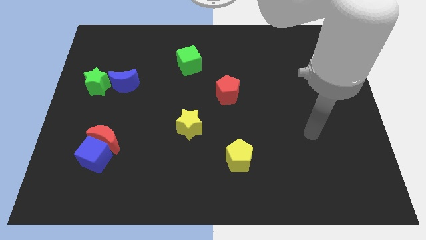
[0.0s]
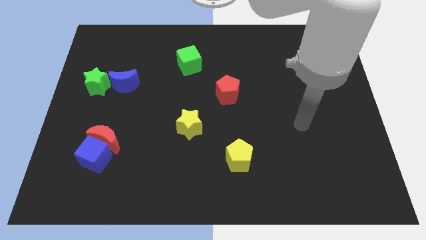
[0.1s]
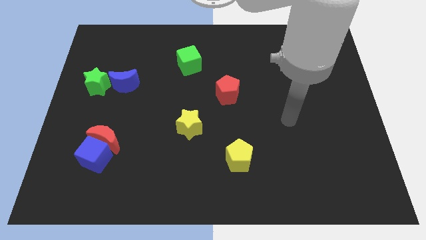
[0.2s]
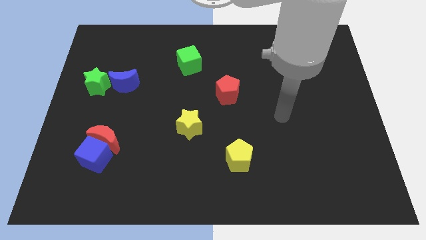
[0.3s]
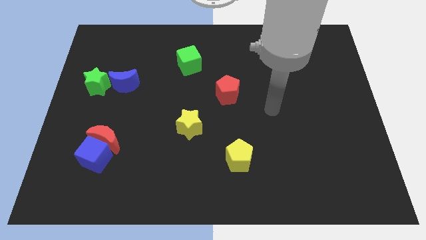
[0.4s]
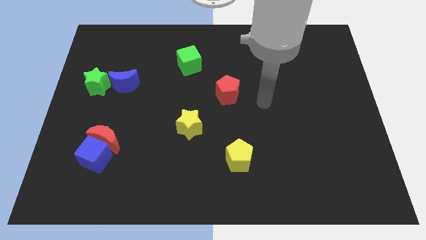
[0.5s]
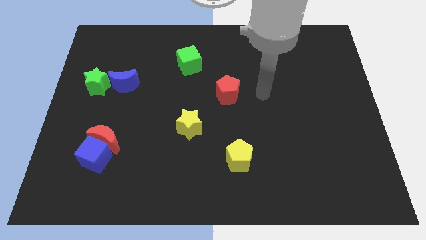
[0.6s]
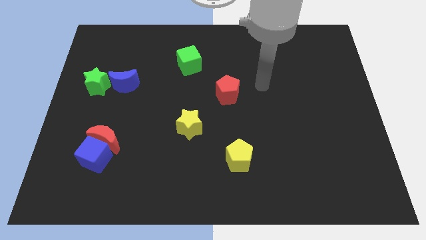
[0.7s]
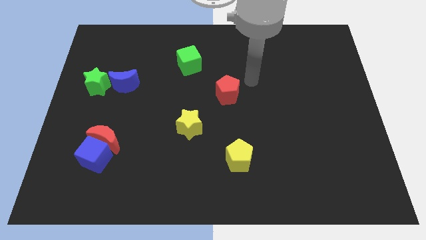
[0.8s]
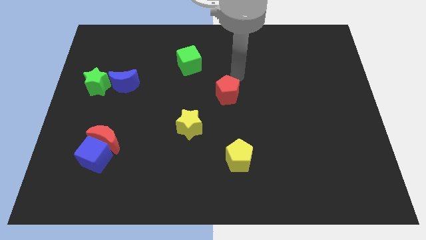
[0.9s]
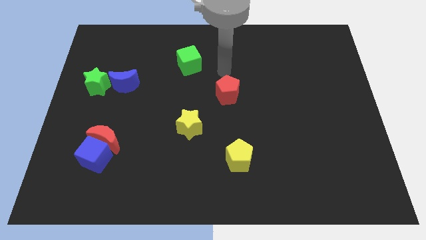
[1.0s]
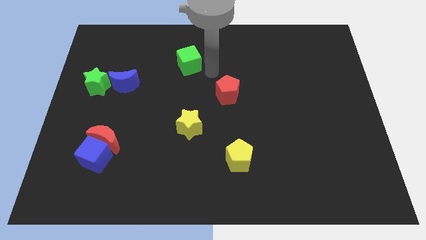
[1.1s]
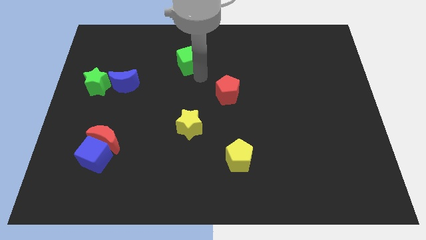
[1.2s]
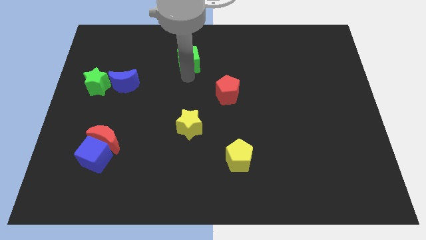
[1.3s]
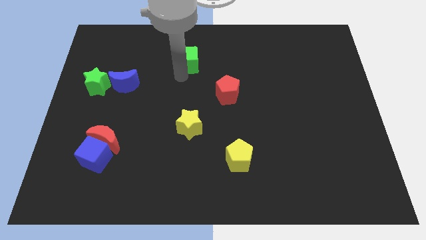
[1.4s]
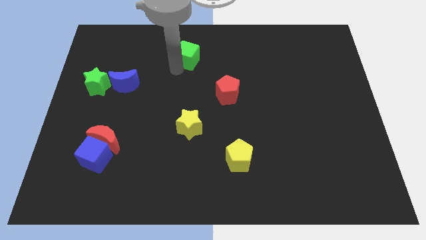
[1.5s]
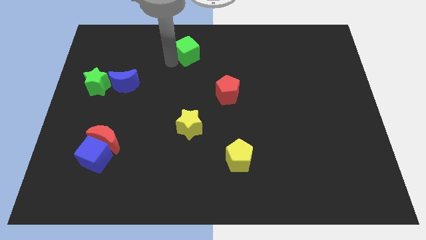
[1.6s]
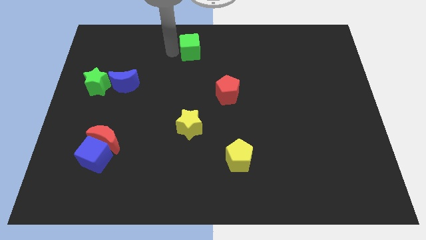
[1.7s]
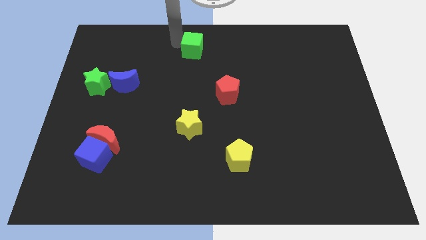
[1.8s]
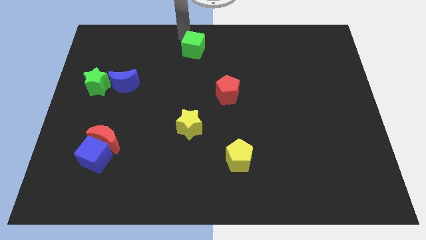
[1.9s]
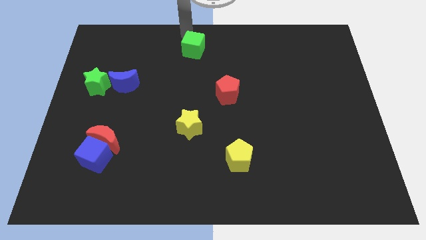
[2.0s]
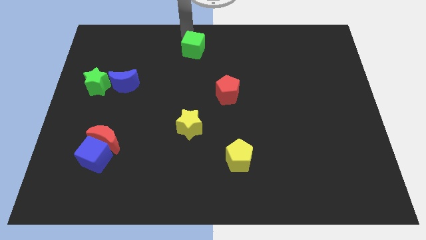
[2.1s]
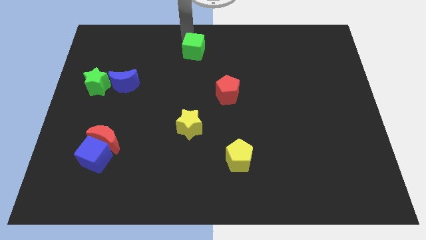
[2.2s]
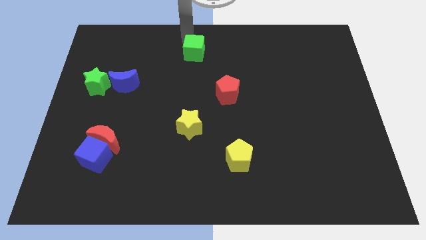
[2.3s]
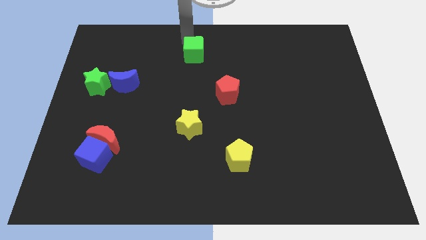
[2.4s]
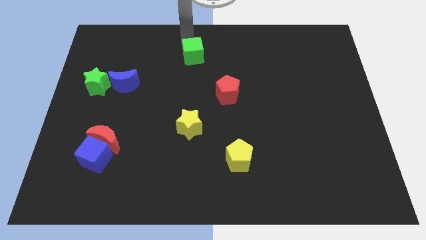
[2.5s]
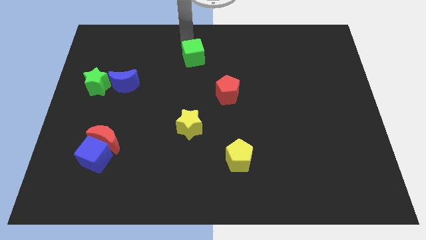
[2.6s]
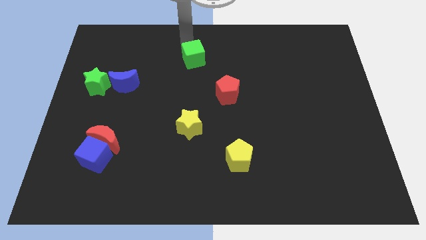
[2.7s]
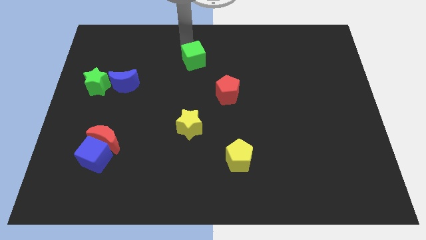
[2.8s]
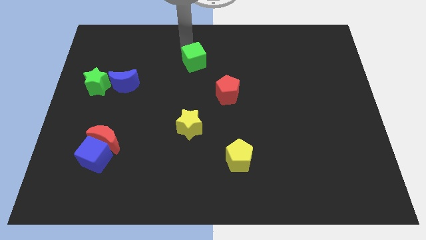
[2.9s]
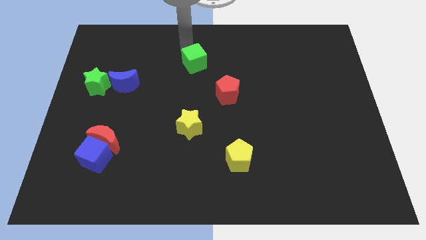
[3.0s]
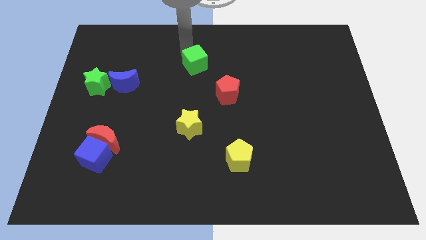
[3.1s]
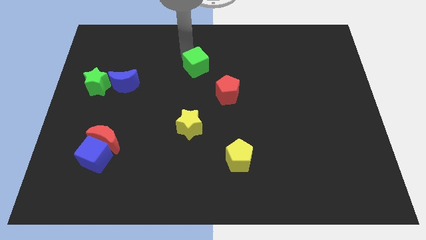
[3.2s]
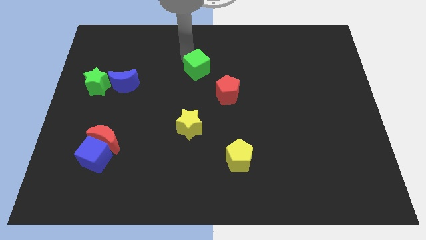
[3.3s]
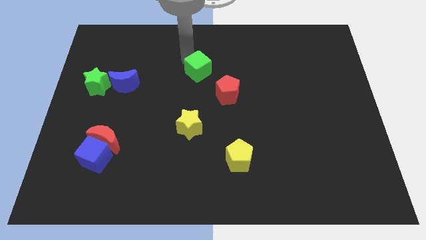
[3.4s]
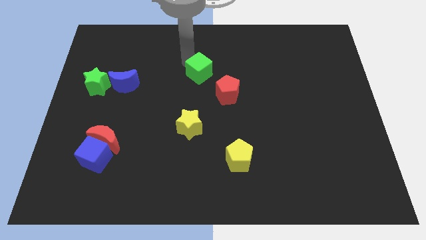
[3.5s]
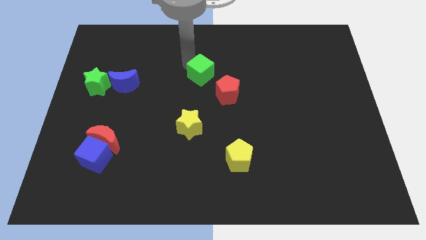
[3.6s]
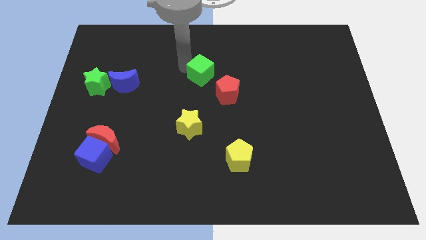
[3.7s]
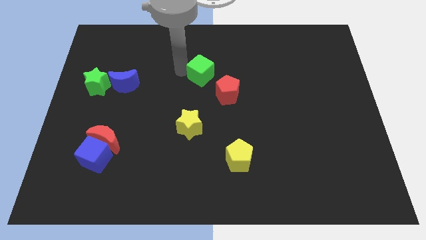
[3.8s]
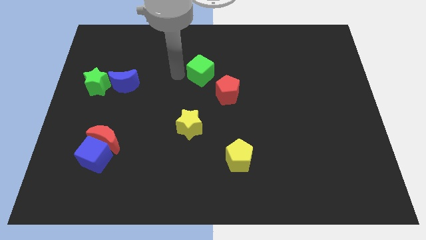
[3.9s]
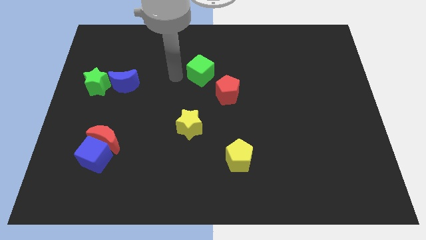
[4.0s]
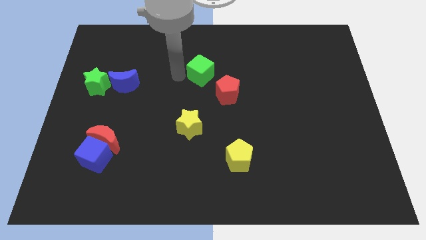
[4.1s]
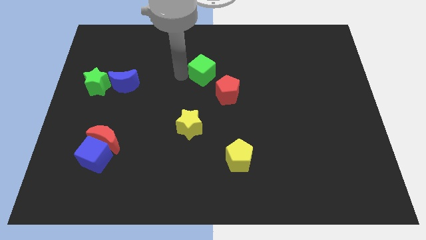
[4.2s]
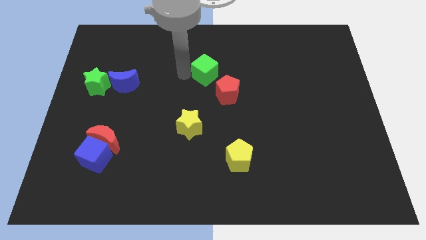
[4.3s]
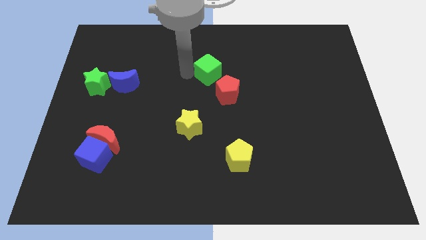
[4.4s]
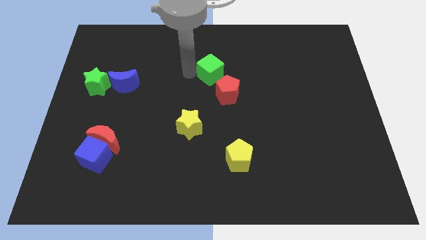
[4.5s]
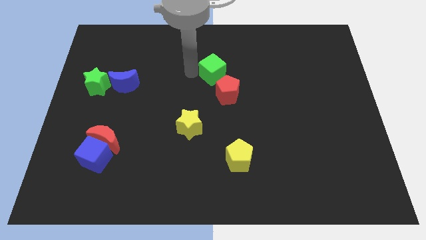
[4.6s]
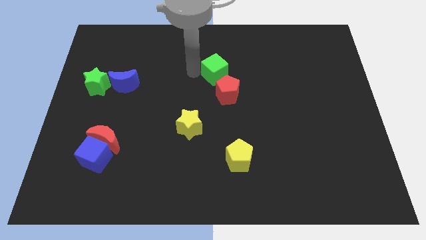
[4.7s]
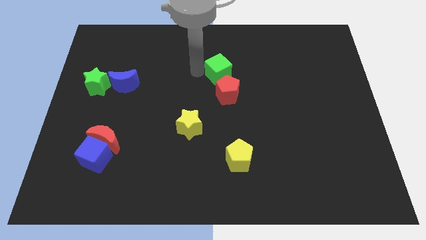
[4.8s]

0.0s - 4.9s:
push the green cube right a little bit

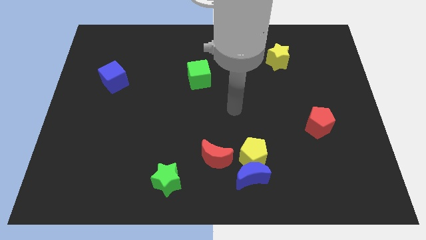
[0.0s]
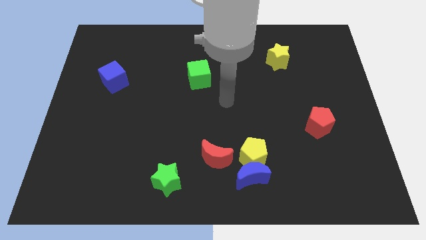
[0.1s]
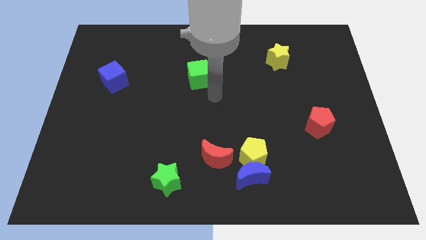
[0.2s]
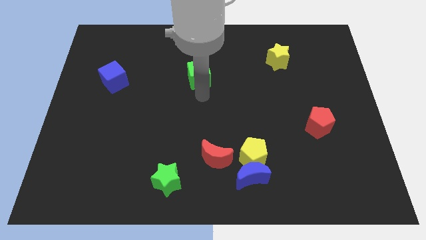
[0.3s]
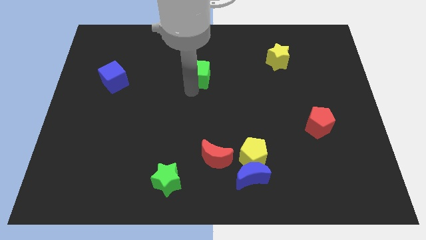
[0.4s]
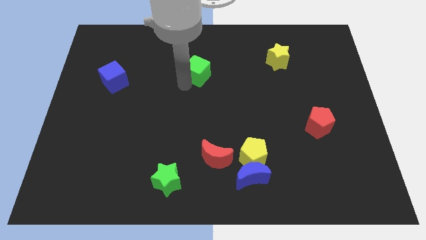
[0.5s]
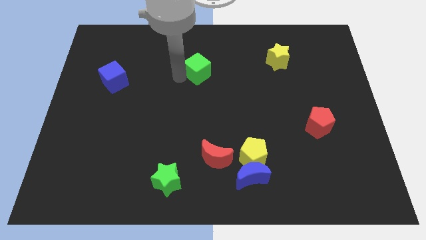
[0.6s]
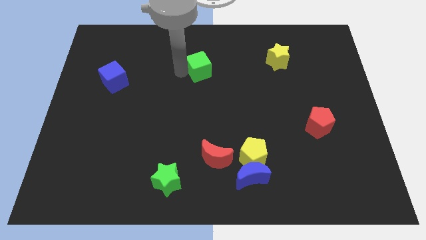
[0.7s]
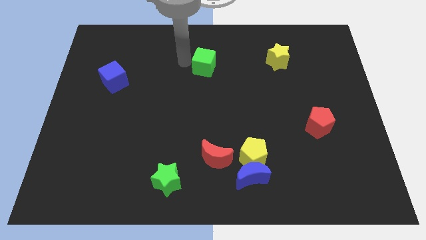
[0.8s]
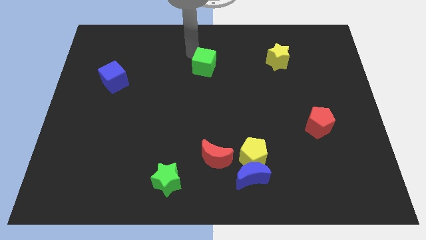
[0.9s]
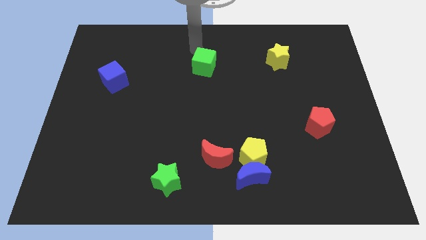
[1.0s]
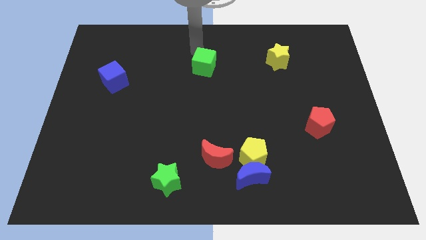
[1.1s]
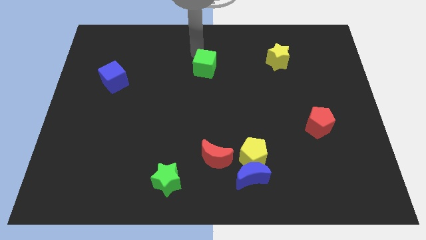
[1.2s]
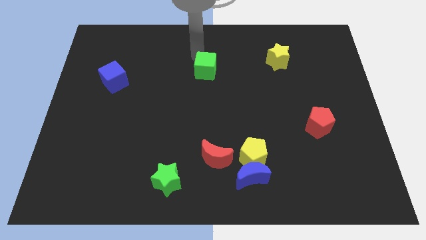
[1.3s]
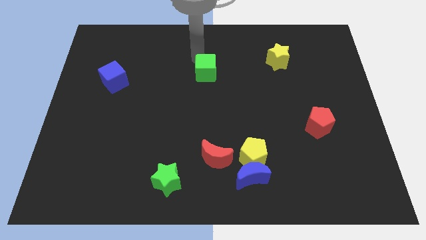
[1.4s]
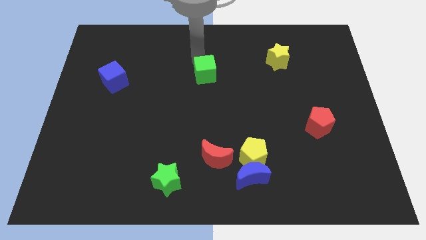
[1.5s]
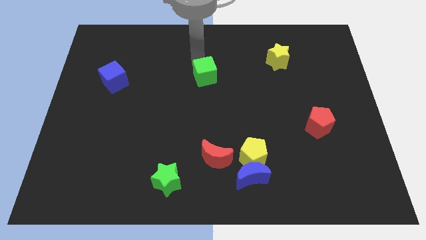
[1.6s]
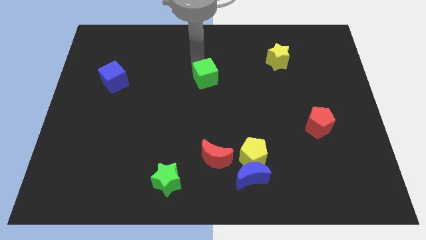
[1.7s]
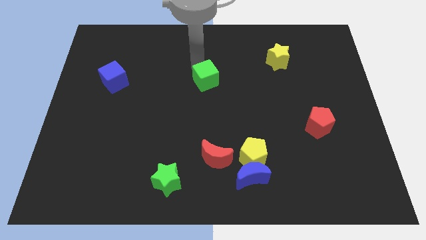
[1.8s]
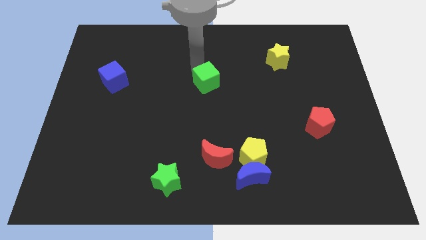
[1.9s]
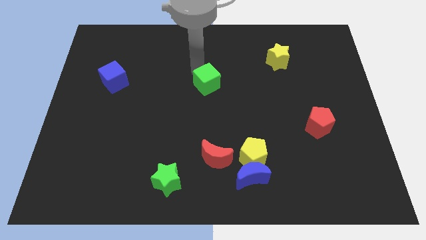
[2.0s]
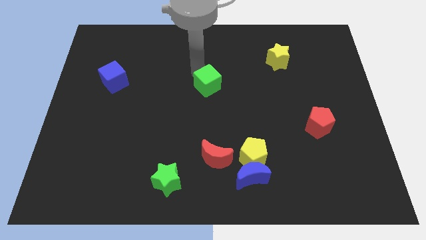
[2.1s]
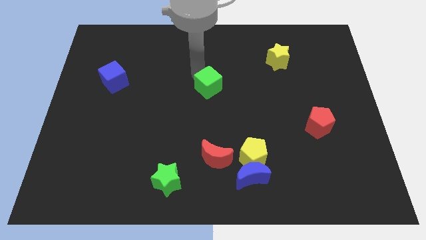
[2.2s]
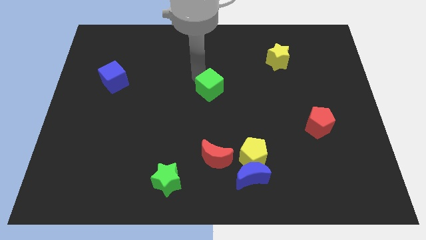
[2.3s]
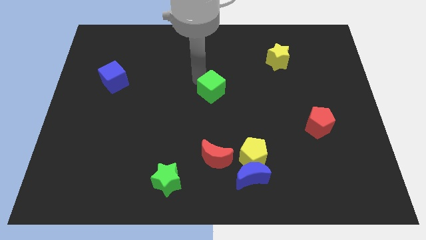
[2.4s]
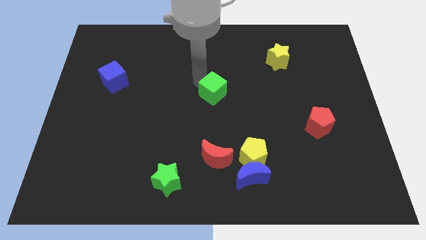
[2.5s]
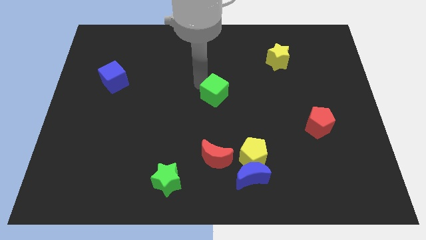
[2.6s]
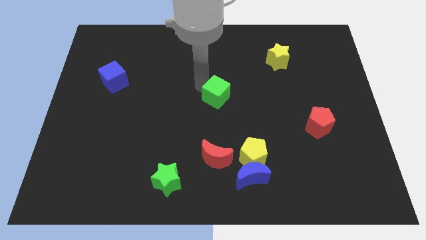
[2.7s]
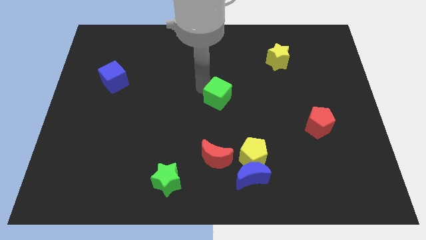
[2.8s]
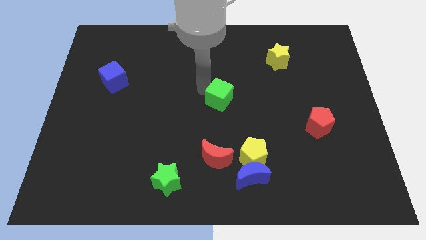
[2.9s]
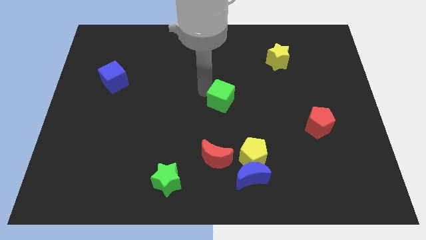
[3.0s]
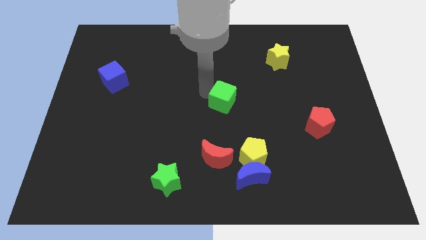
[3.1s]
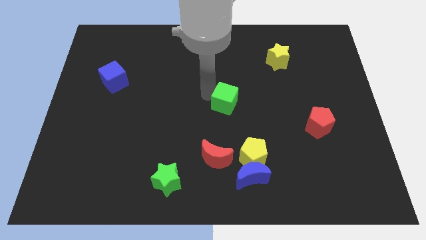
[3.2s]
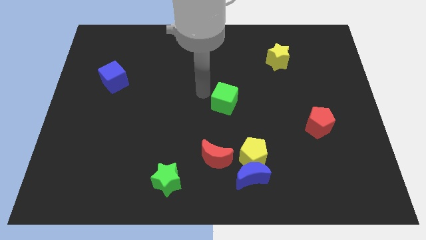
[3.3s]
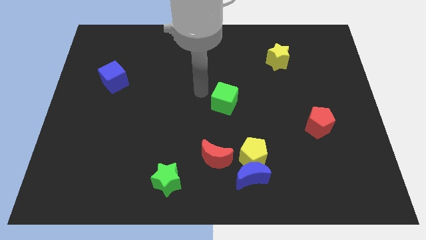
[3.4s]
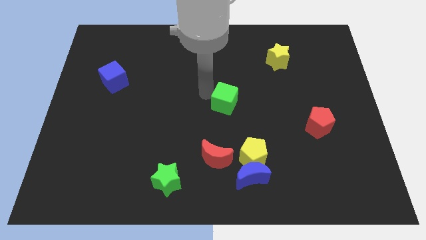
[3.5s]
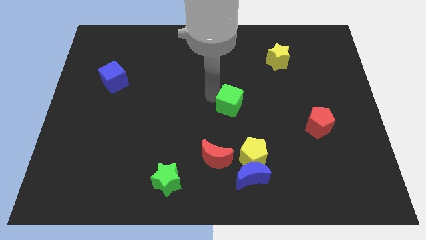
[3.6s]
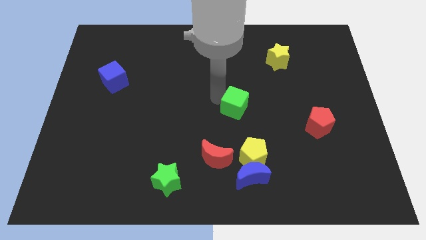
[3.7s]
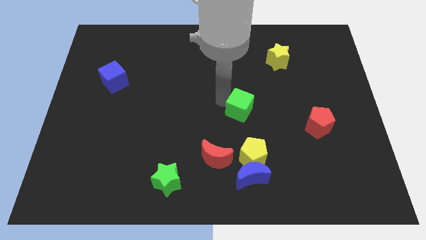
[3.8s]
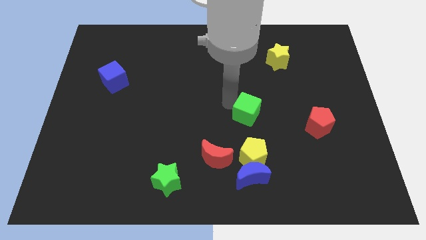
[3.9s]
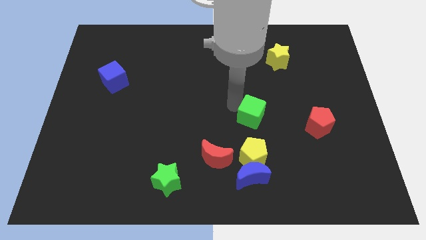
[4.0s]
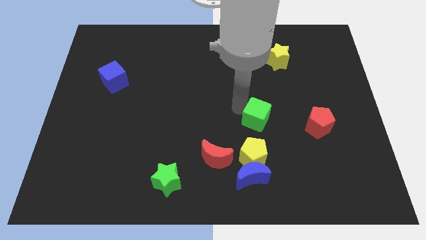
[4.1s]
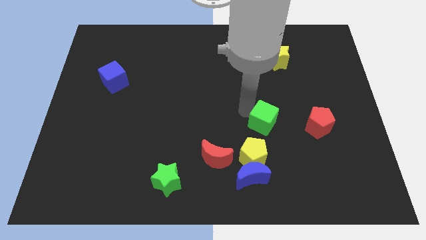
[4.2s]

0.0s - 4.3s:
push the green cube downwards and to the right diagonally
